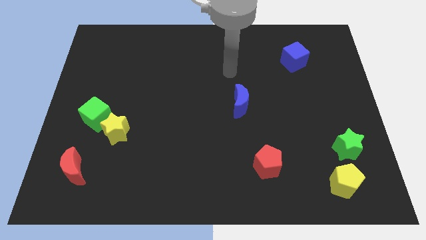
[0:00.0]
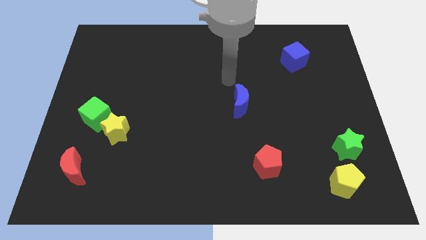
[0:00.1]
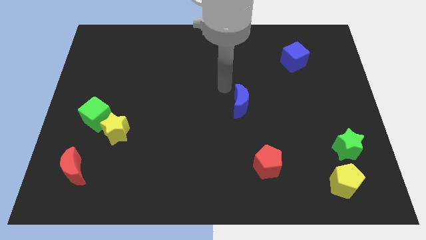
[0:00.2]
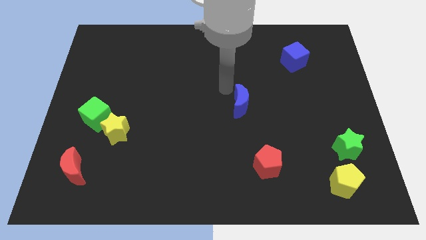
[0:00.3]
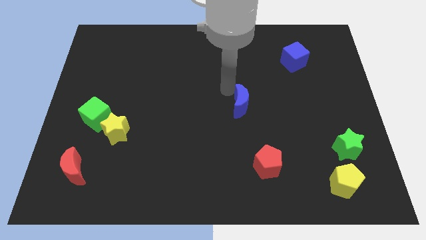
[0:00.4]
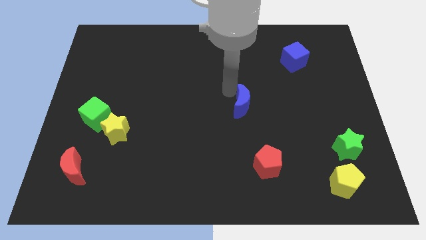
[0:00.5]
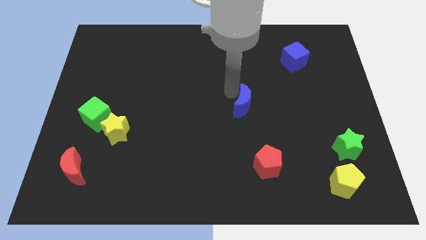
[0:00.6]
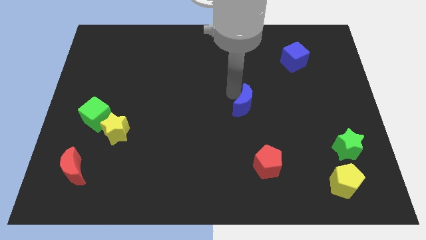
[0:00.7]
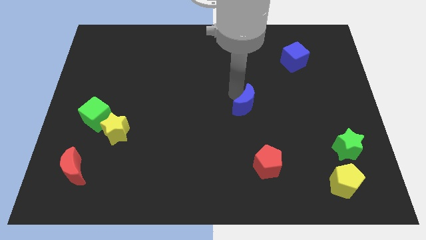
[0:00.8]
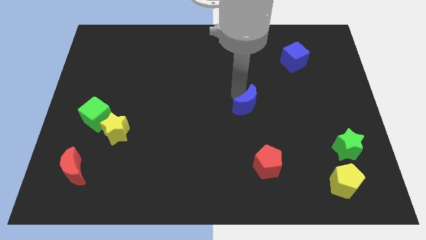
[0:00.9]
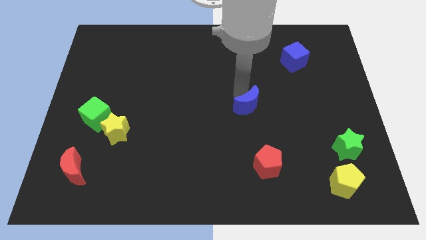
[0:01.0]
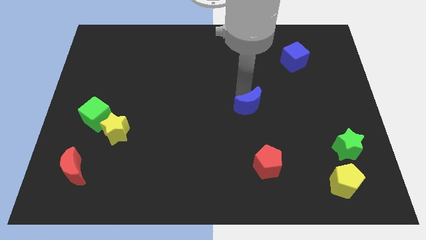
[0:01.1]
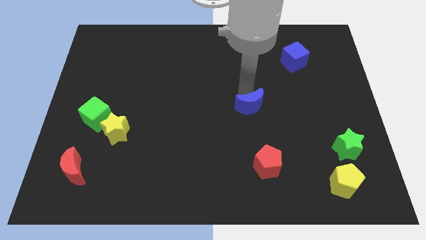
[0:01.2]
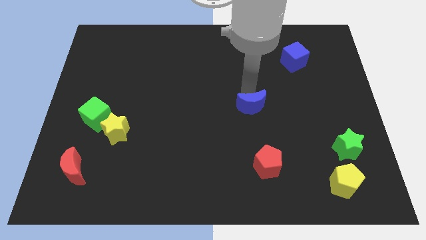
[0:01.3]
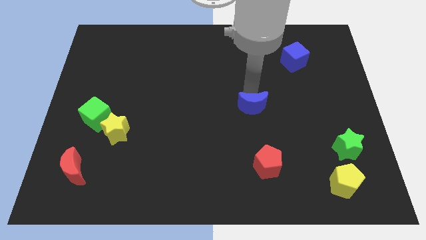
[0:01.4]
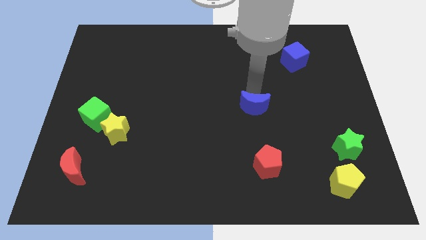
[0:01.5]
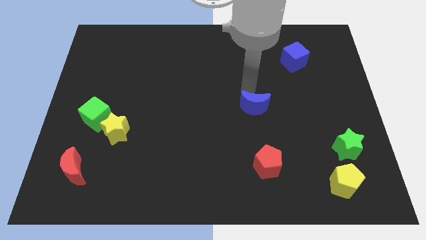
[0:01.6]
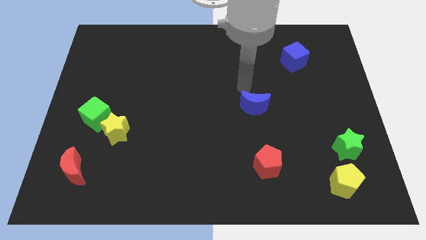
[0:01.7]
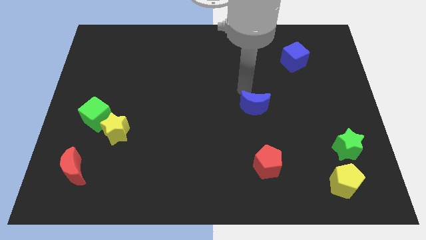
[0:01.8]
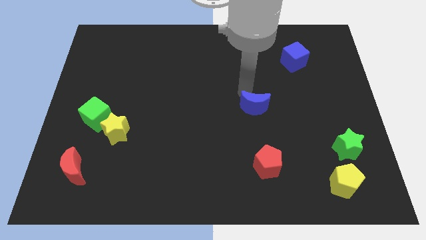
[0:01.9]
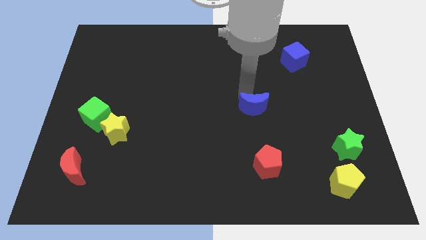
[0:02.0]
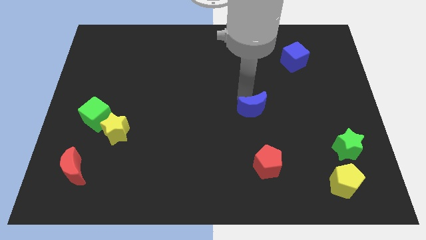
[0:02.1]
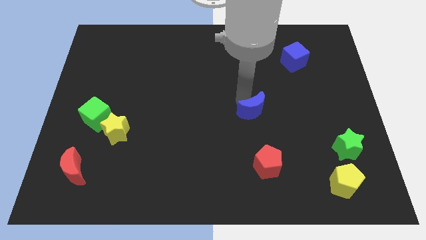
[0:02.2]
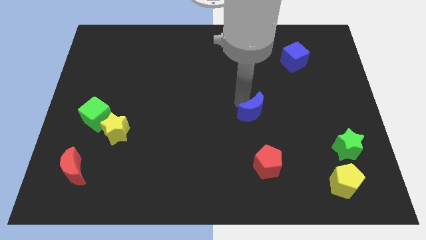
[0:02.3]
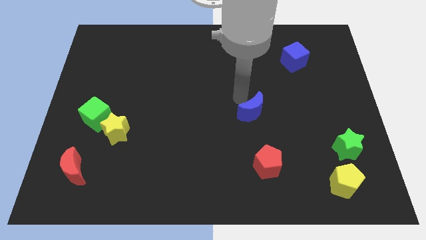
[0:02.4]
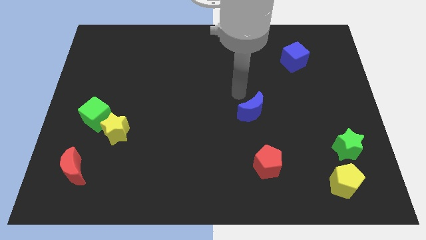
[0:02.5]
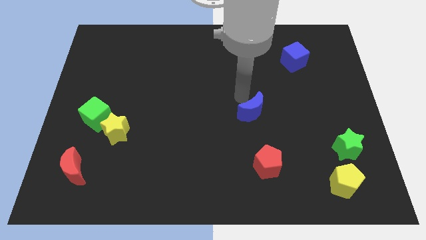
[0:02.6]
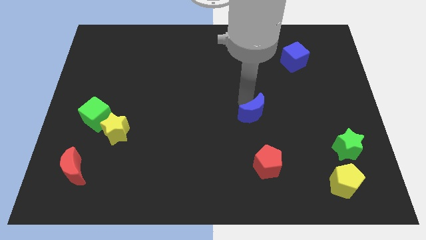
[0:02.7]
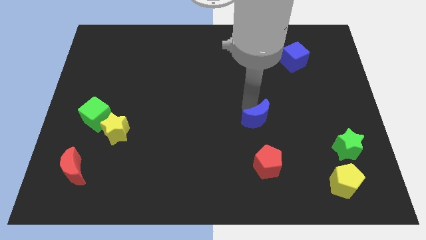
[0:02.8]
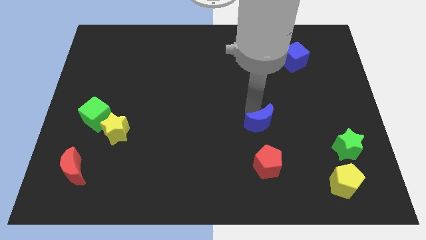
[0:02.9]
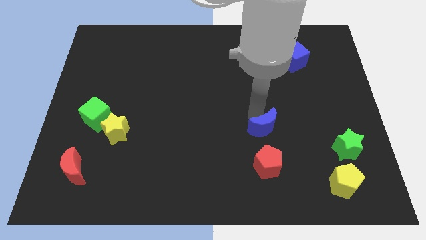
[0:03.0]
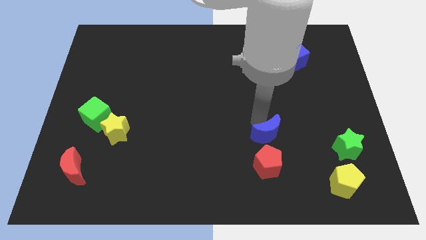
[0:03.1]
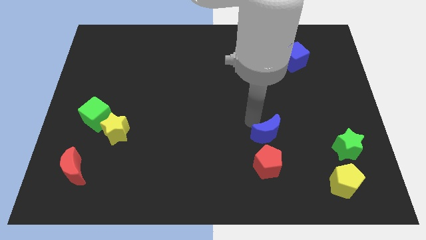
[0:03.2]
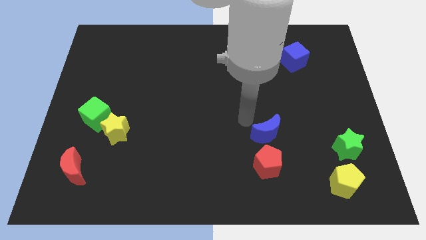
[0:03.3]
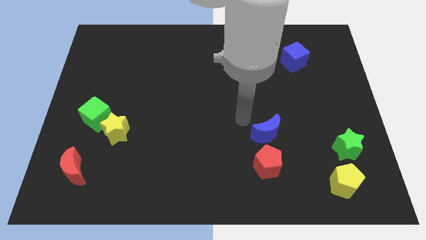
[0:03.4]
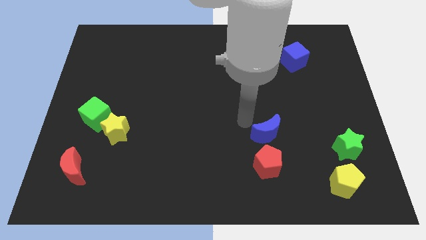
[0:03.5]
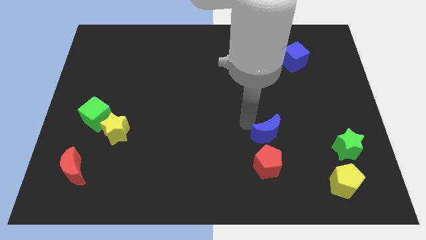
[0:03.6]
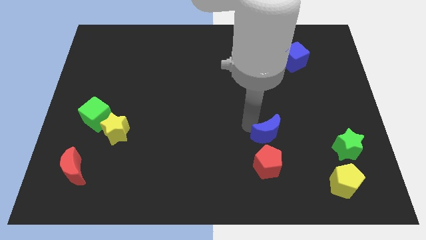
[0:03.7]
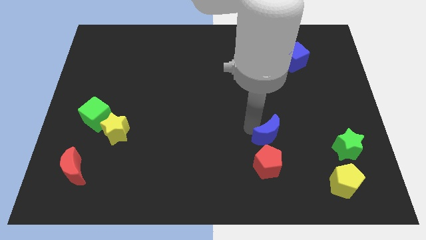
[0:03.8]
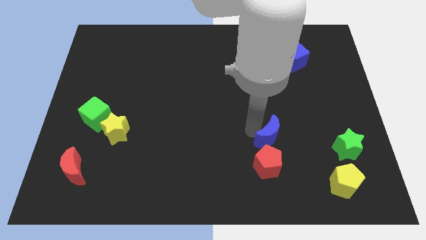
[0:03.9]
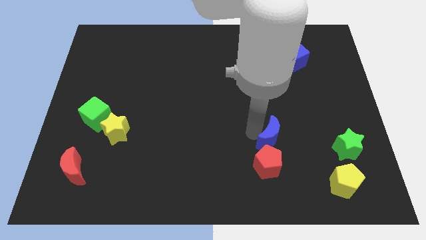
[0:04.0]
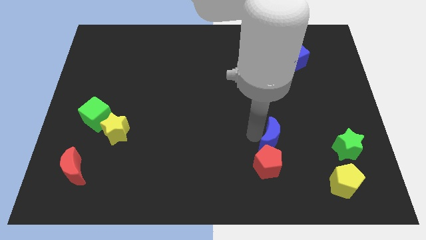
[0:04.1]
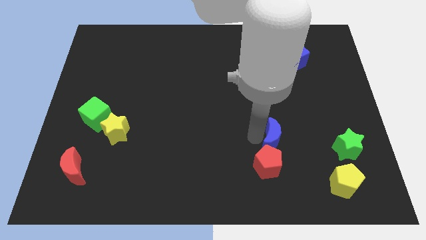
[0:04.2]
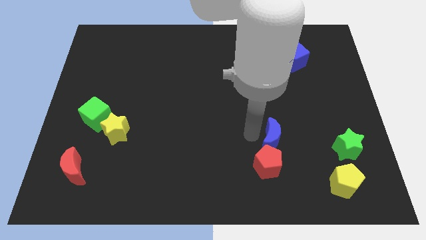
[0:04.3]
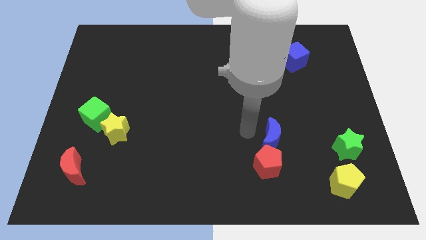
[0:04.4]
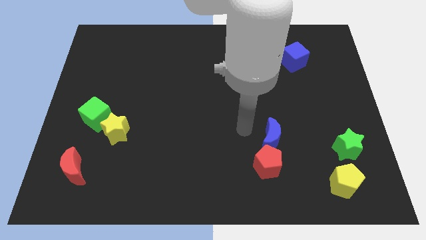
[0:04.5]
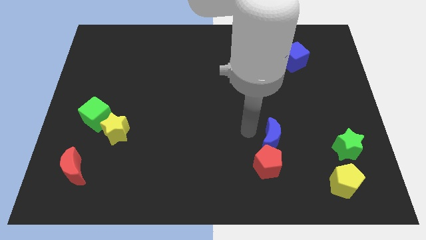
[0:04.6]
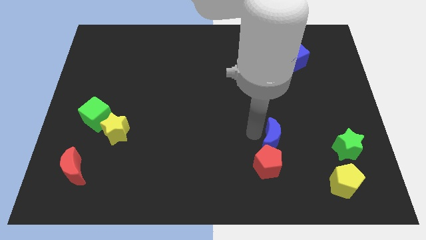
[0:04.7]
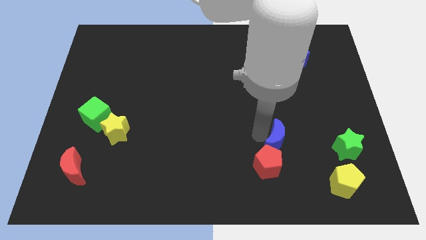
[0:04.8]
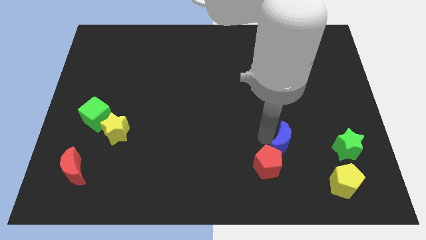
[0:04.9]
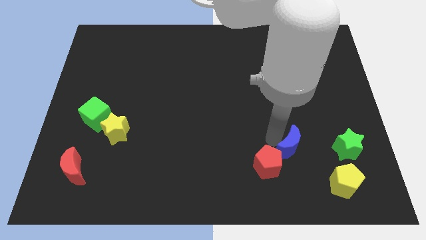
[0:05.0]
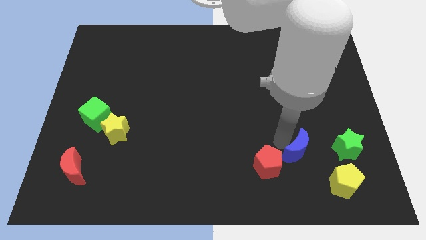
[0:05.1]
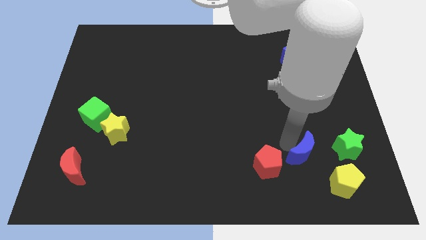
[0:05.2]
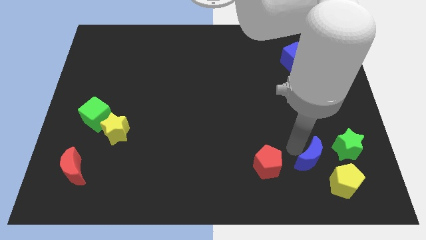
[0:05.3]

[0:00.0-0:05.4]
push the blue moon to the bottom left of the green star

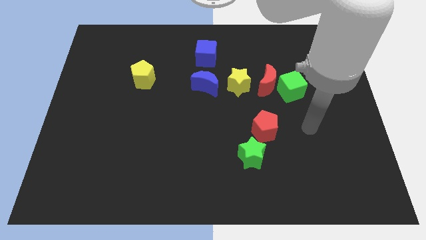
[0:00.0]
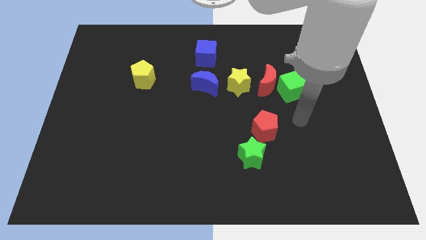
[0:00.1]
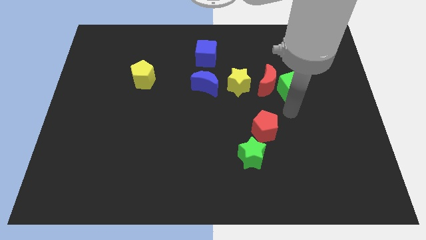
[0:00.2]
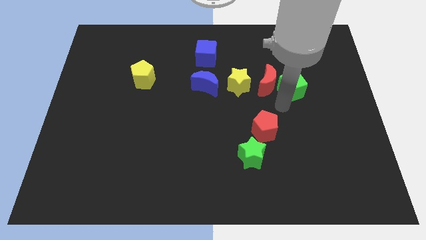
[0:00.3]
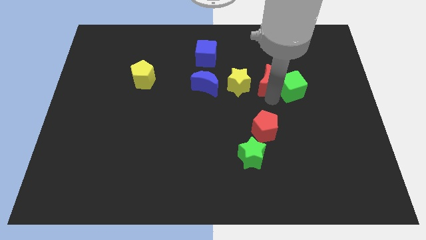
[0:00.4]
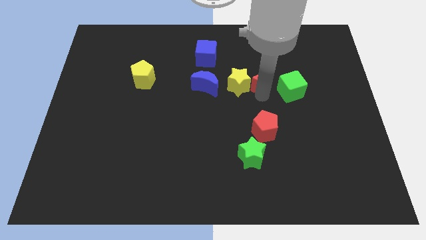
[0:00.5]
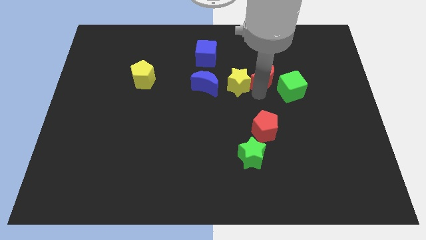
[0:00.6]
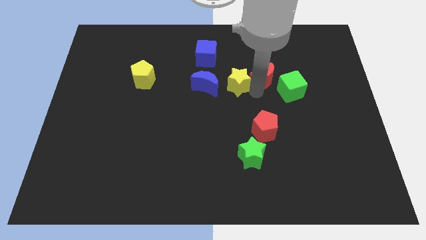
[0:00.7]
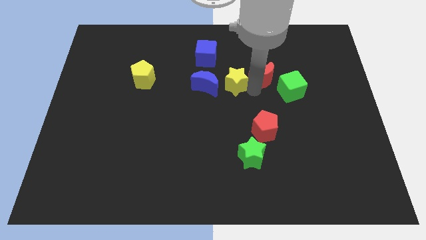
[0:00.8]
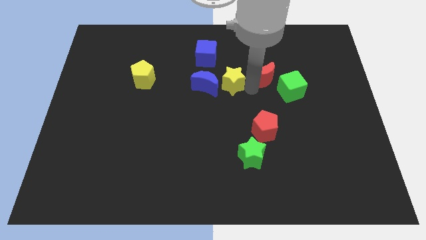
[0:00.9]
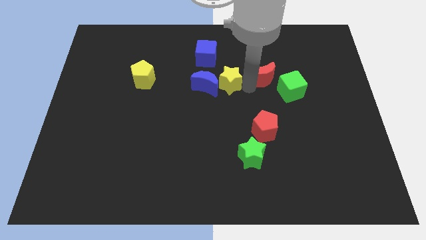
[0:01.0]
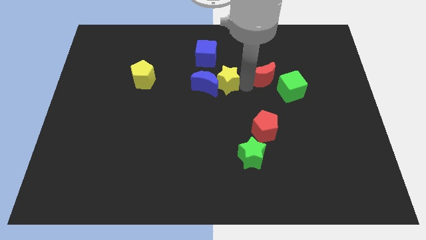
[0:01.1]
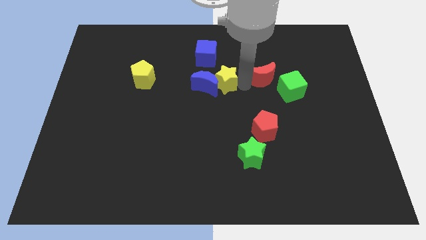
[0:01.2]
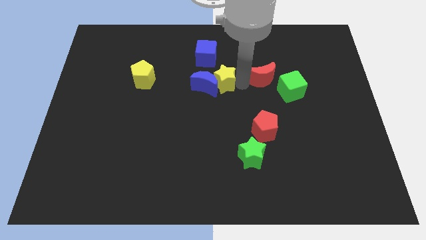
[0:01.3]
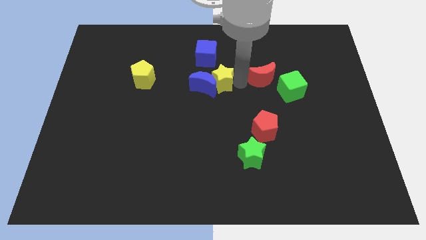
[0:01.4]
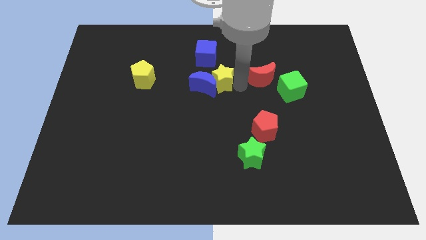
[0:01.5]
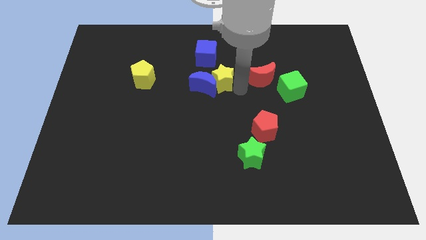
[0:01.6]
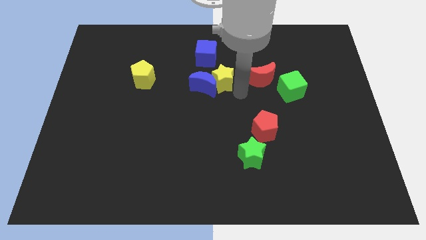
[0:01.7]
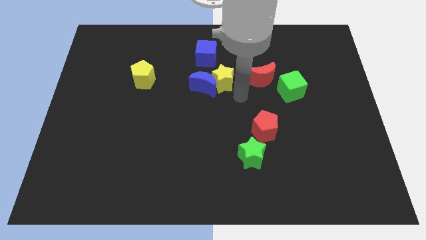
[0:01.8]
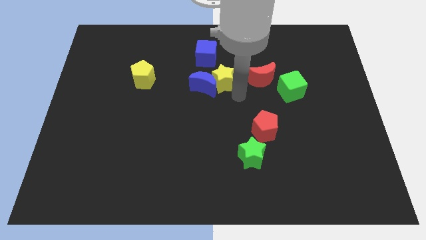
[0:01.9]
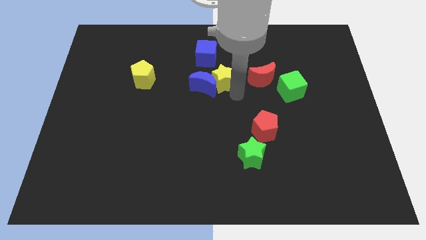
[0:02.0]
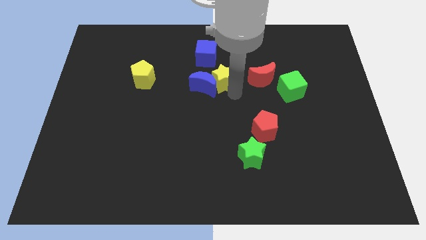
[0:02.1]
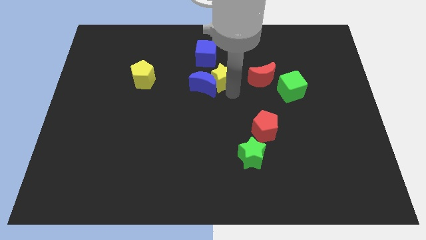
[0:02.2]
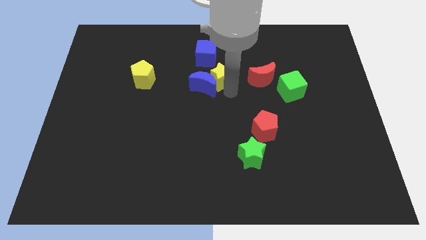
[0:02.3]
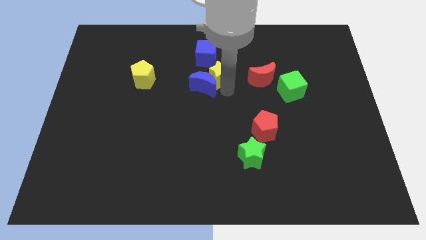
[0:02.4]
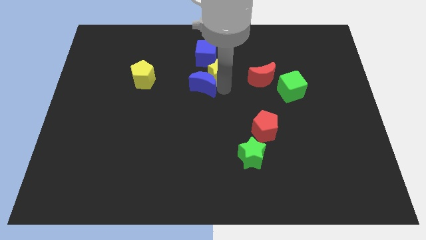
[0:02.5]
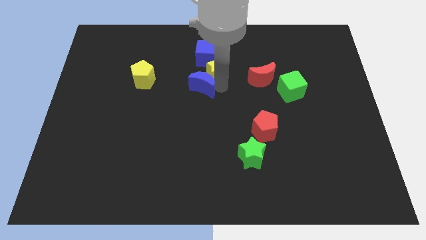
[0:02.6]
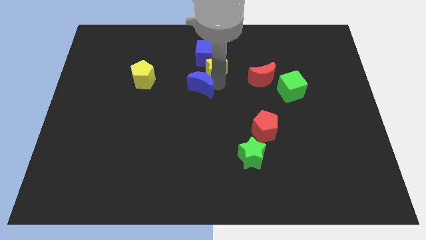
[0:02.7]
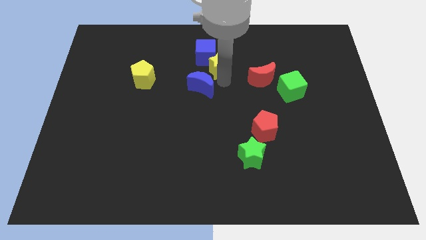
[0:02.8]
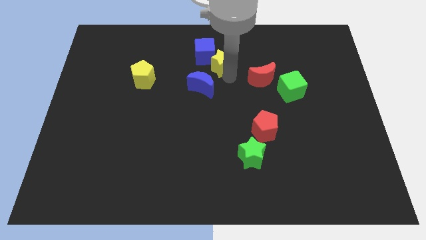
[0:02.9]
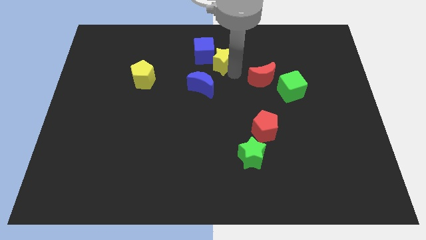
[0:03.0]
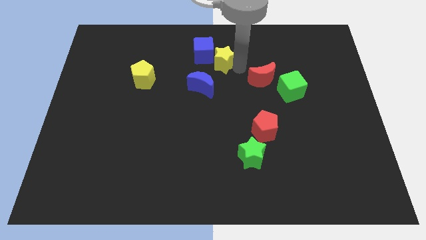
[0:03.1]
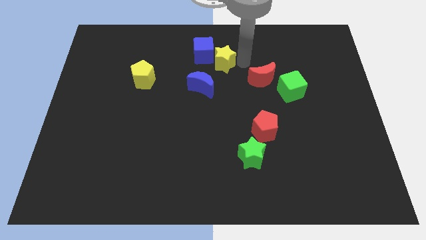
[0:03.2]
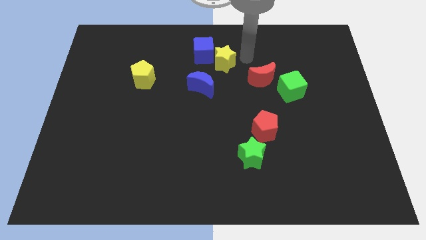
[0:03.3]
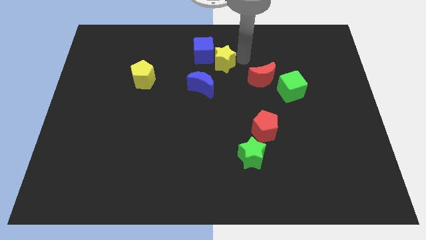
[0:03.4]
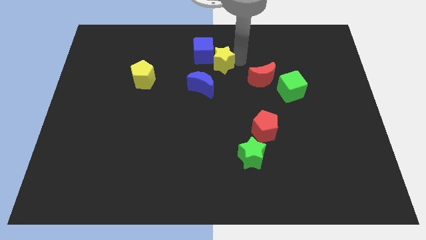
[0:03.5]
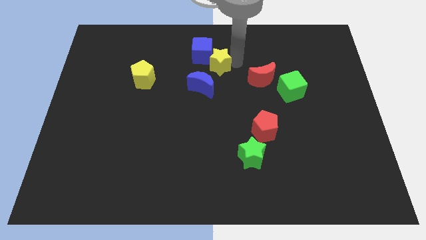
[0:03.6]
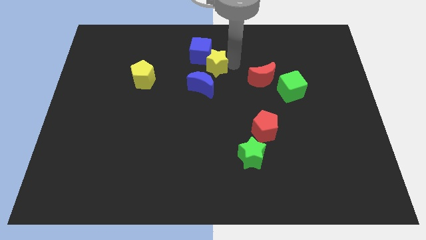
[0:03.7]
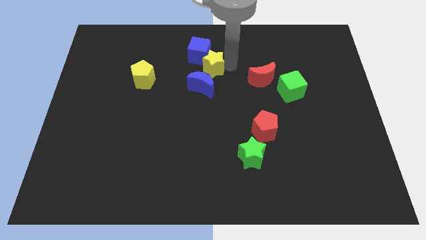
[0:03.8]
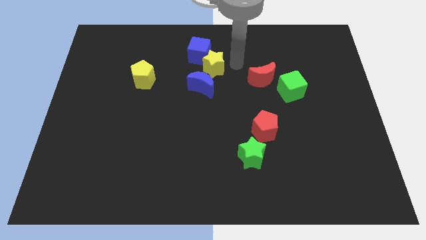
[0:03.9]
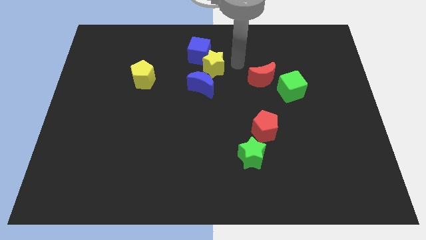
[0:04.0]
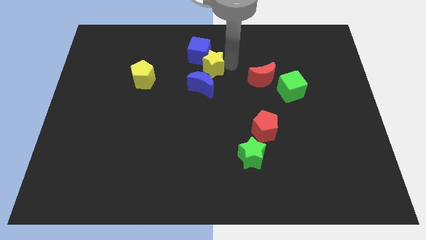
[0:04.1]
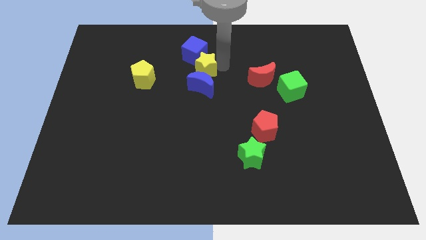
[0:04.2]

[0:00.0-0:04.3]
slide the yellow star to the top left of the blue moon
